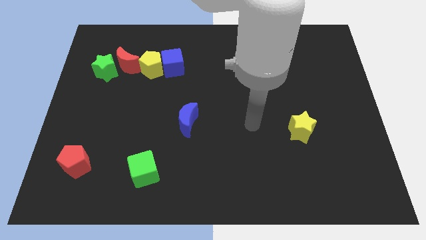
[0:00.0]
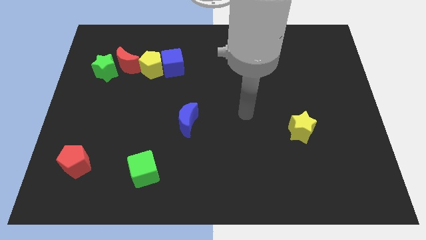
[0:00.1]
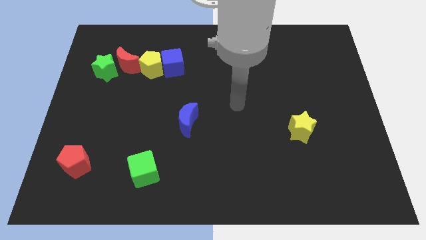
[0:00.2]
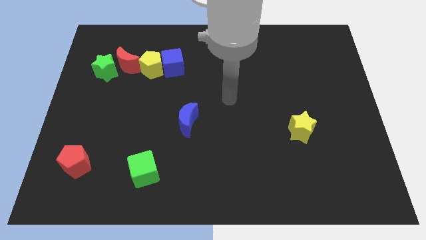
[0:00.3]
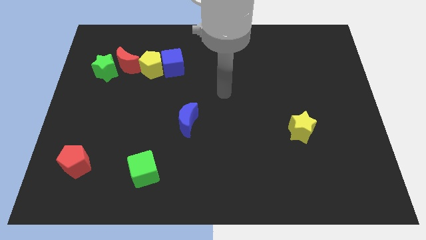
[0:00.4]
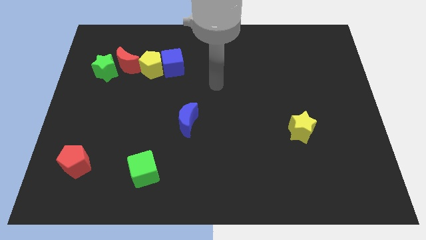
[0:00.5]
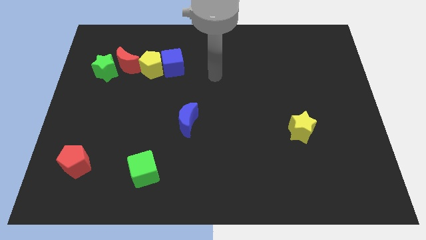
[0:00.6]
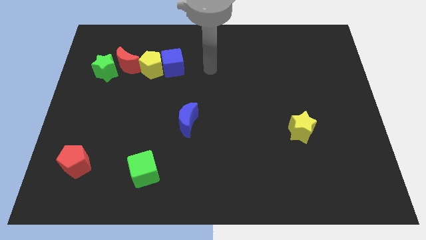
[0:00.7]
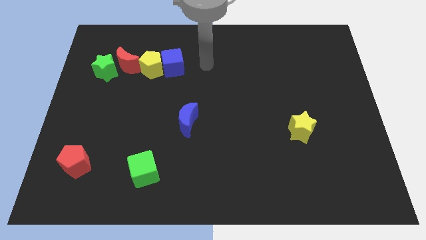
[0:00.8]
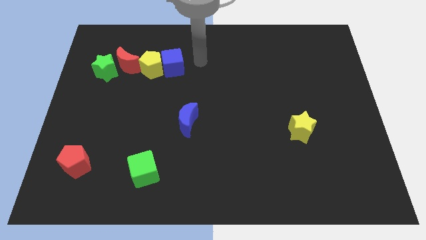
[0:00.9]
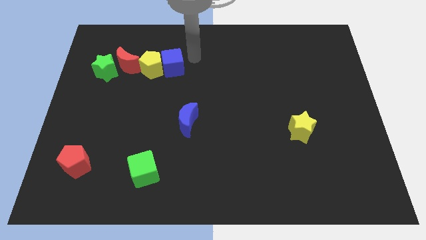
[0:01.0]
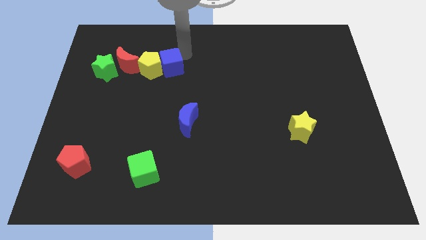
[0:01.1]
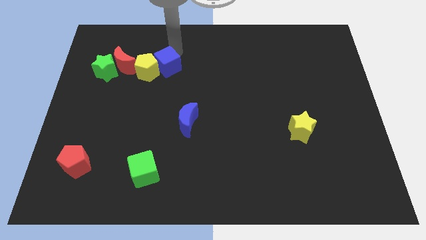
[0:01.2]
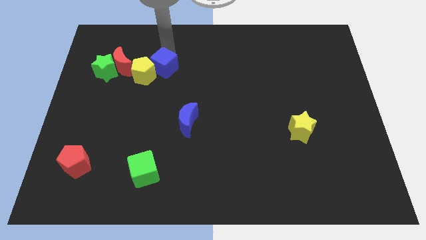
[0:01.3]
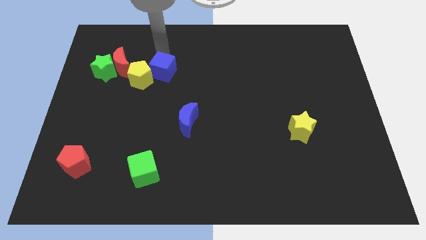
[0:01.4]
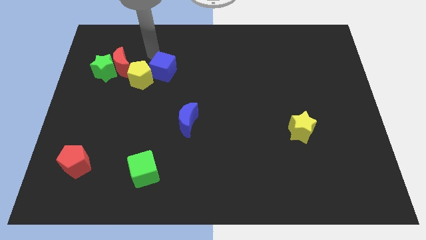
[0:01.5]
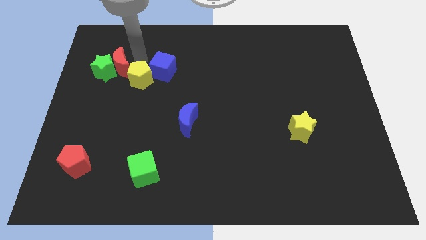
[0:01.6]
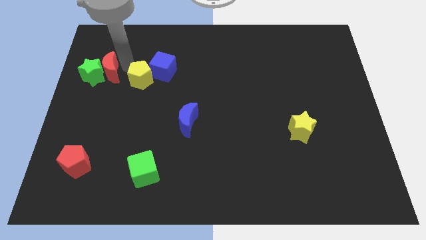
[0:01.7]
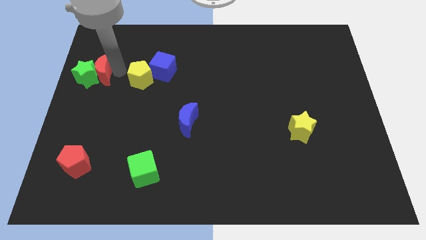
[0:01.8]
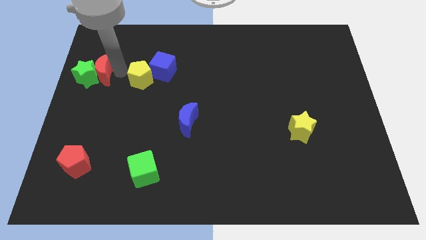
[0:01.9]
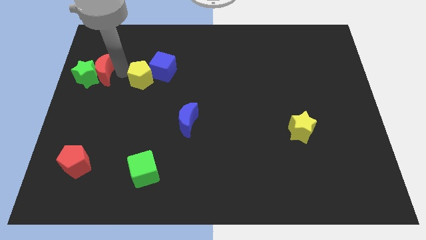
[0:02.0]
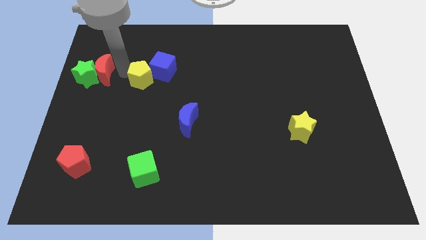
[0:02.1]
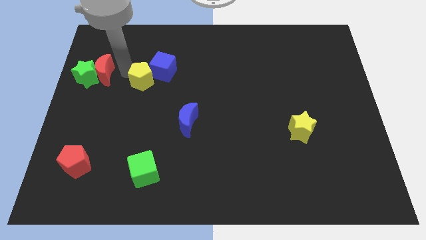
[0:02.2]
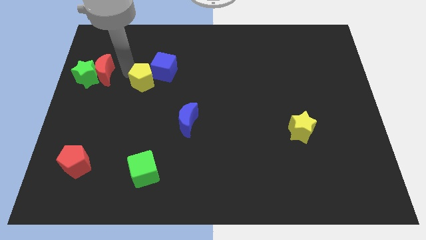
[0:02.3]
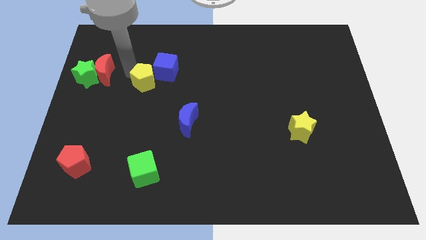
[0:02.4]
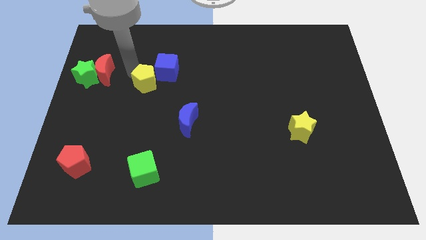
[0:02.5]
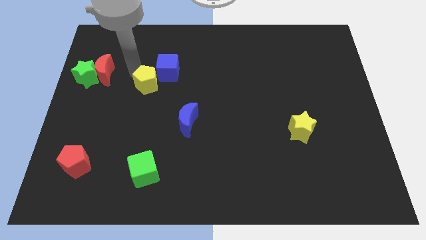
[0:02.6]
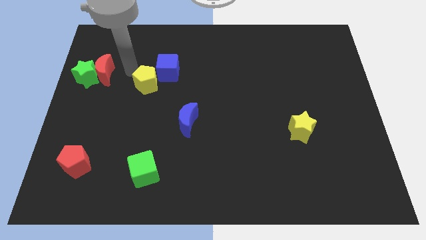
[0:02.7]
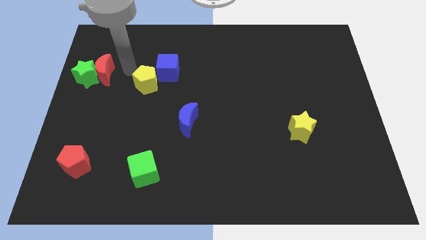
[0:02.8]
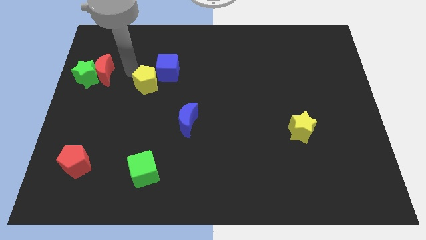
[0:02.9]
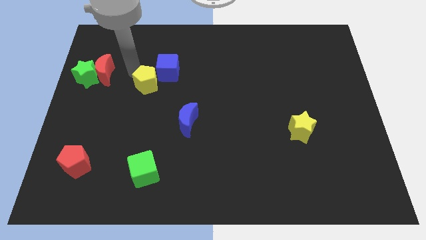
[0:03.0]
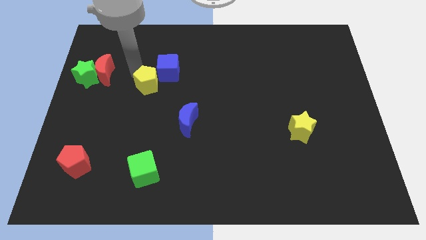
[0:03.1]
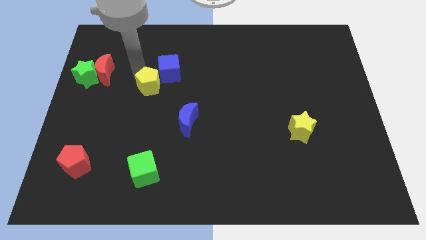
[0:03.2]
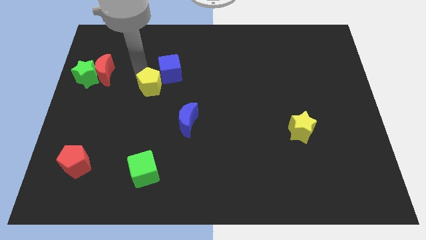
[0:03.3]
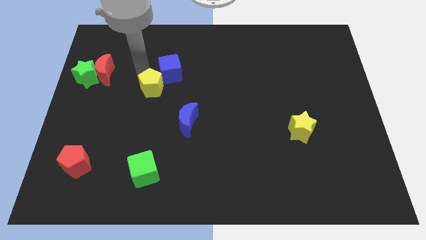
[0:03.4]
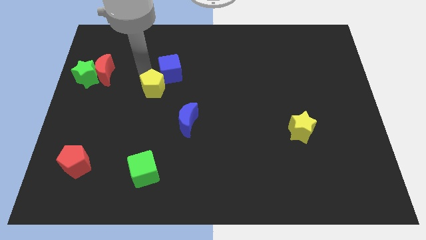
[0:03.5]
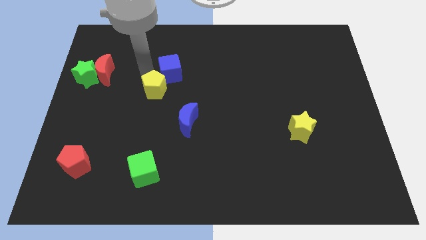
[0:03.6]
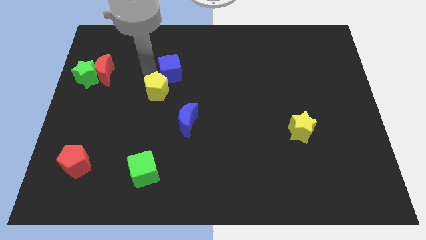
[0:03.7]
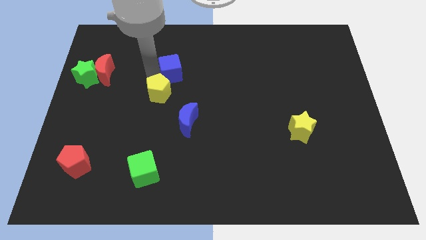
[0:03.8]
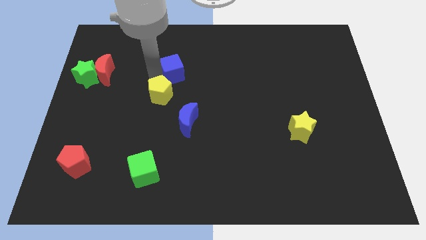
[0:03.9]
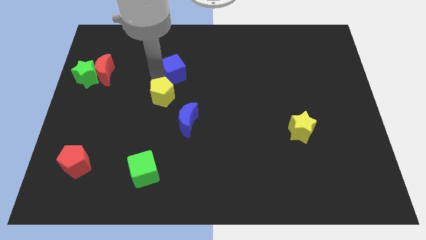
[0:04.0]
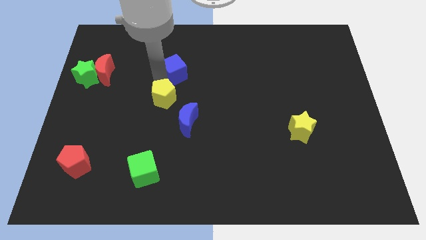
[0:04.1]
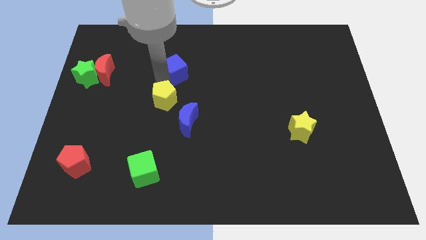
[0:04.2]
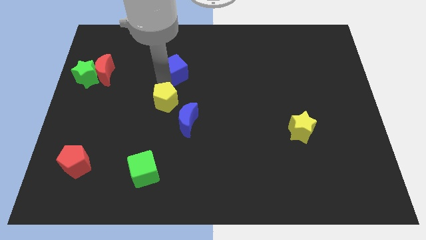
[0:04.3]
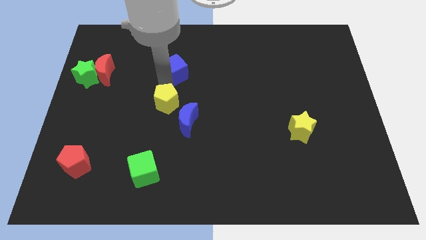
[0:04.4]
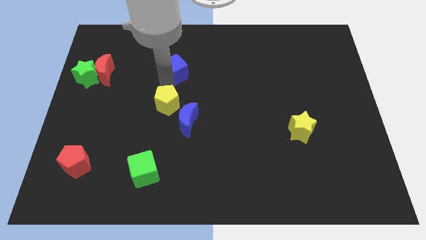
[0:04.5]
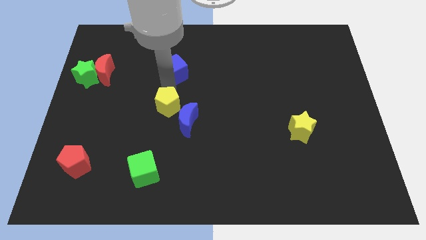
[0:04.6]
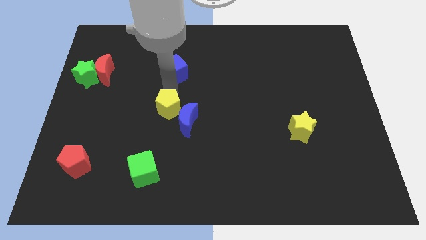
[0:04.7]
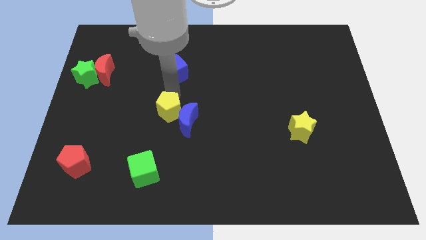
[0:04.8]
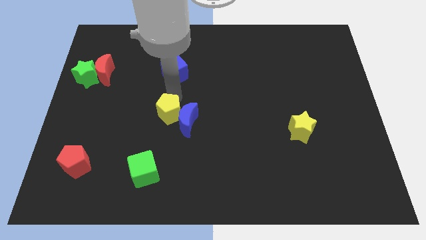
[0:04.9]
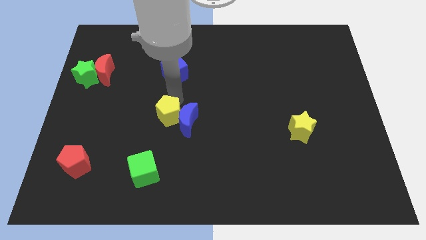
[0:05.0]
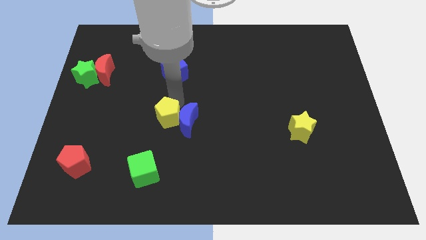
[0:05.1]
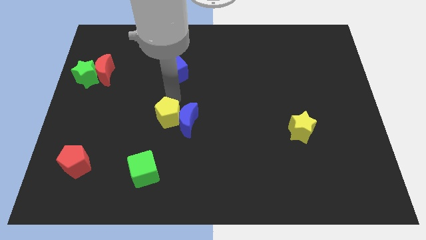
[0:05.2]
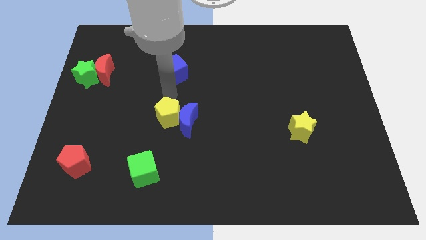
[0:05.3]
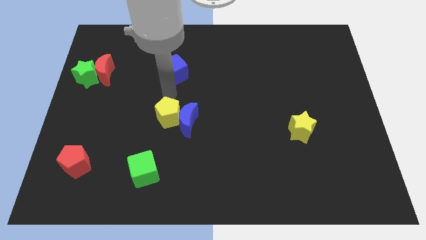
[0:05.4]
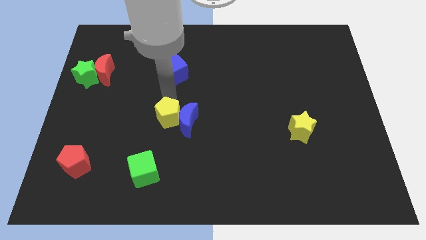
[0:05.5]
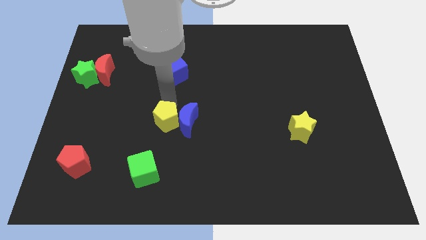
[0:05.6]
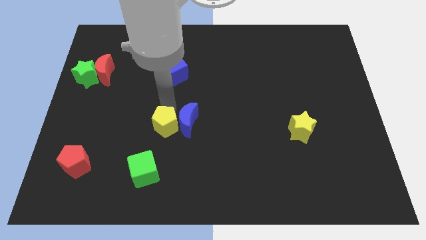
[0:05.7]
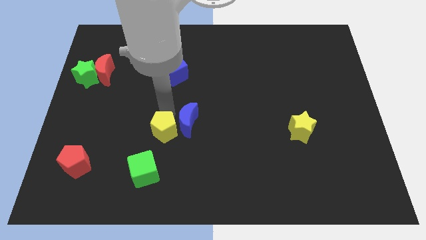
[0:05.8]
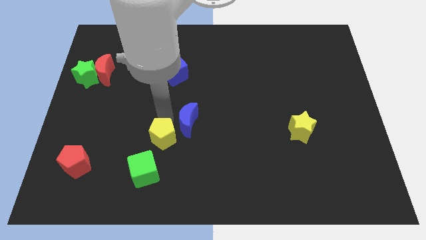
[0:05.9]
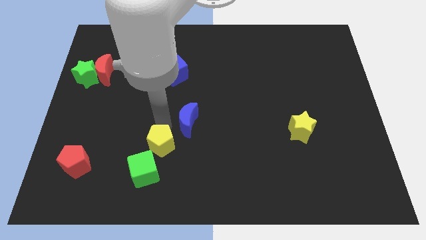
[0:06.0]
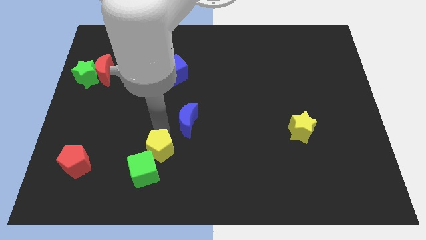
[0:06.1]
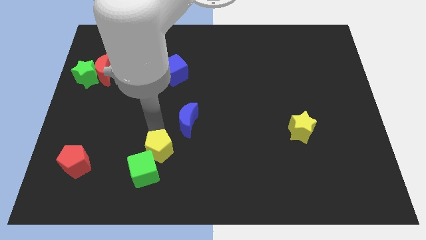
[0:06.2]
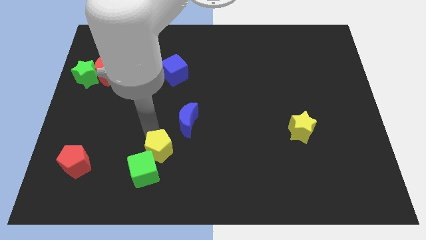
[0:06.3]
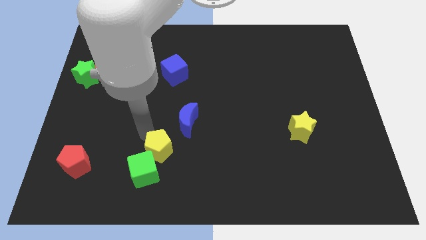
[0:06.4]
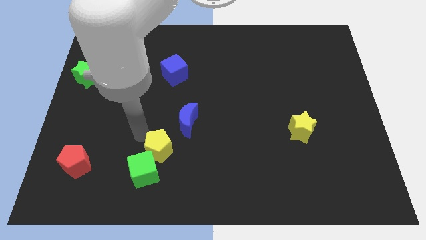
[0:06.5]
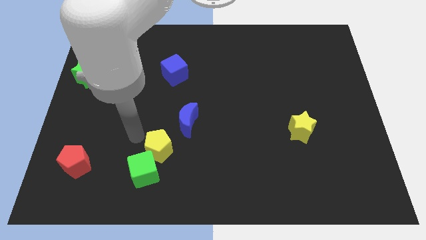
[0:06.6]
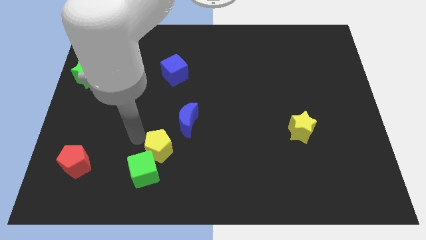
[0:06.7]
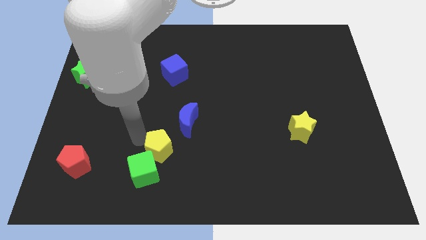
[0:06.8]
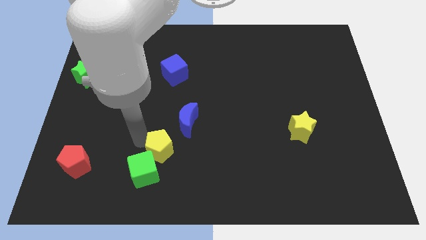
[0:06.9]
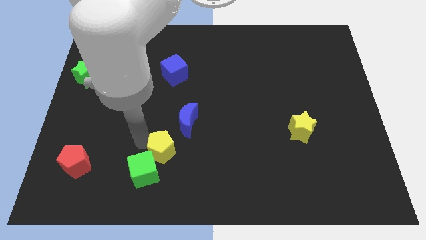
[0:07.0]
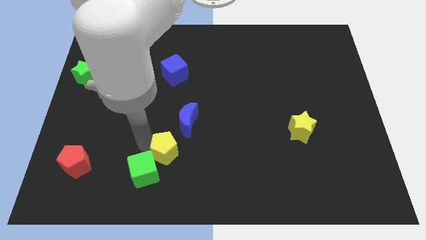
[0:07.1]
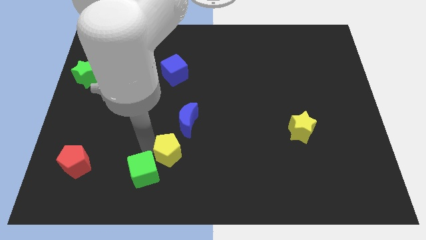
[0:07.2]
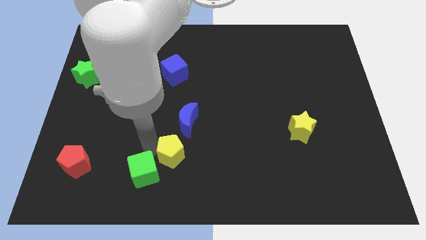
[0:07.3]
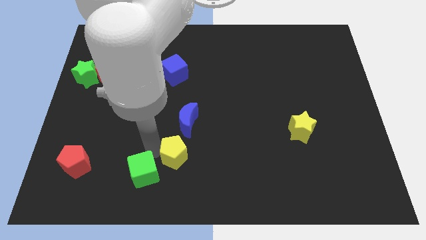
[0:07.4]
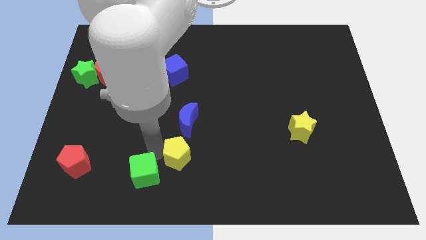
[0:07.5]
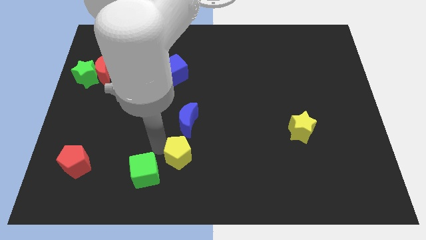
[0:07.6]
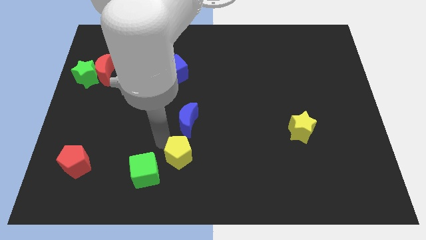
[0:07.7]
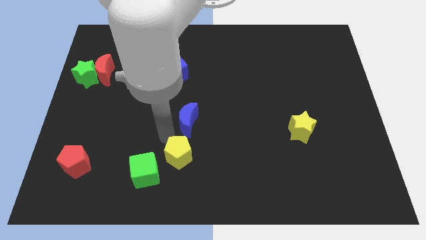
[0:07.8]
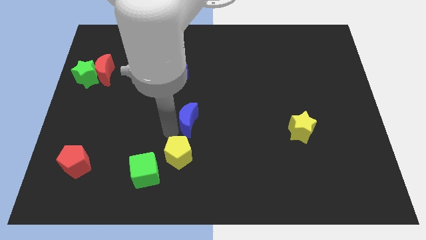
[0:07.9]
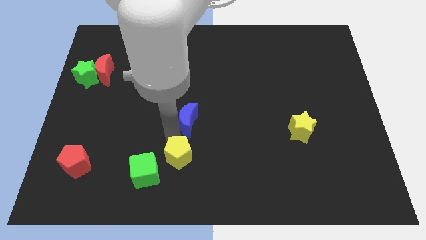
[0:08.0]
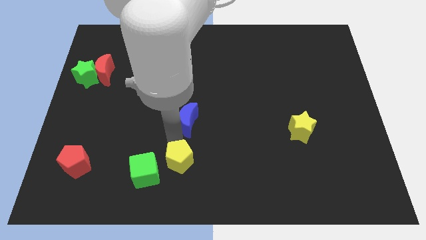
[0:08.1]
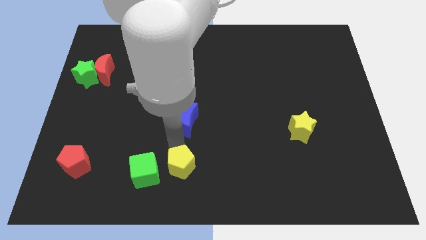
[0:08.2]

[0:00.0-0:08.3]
push the yellow pentagon to the bottom
